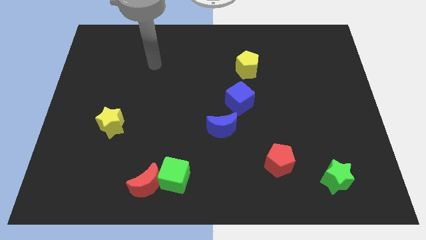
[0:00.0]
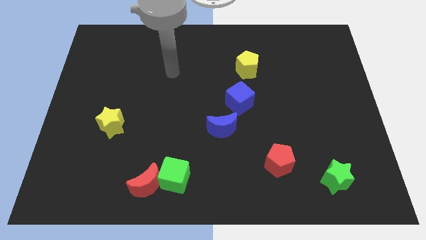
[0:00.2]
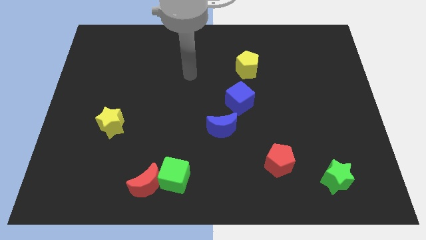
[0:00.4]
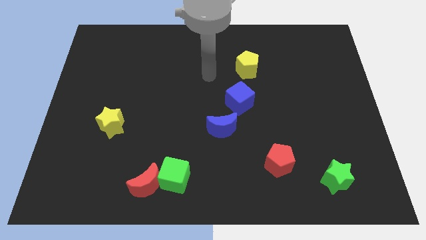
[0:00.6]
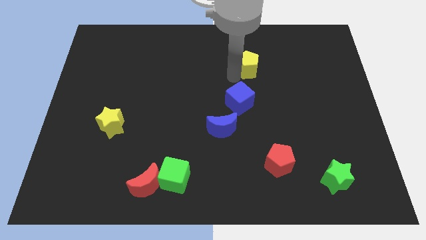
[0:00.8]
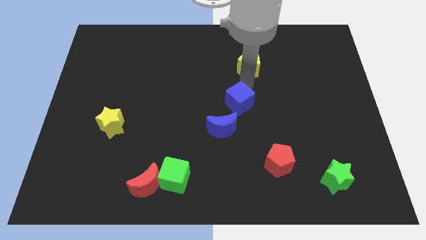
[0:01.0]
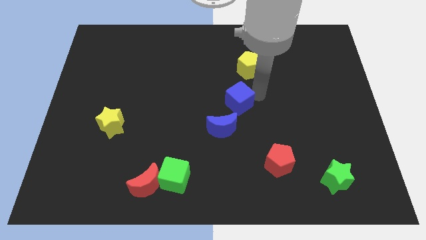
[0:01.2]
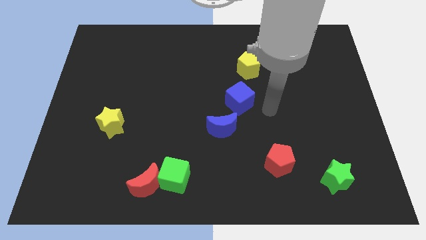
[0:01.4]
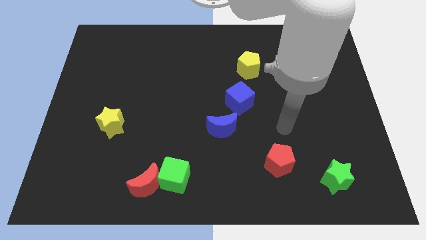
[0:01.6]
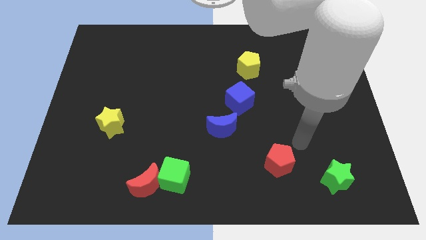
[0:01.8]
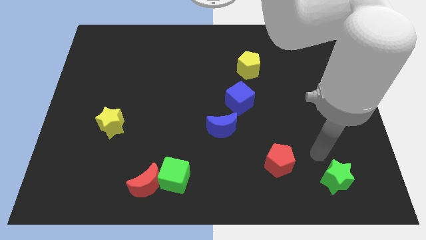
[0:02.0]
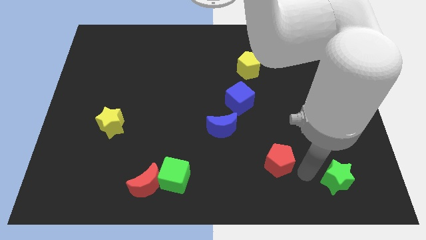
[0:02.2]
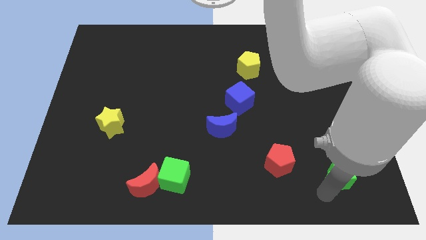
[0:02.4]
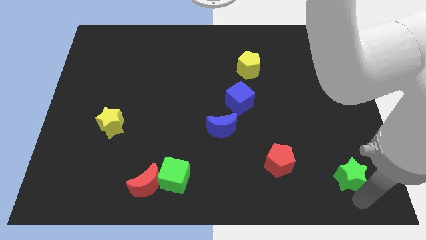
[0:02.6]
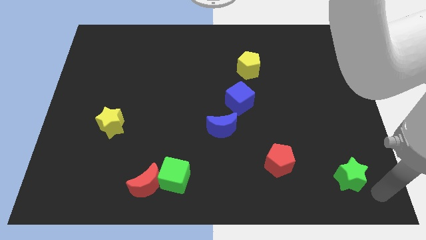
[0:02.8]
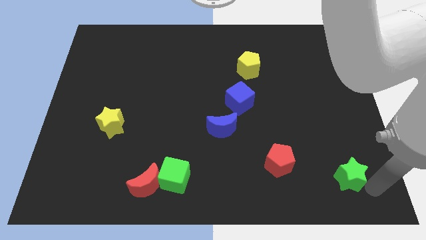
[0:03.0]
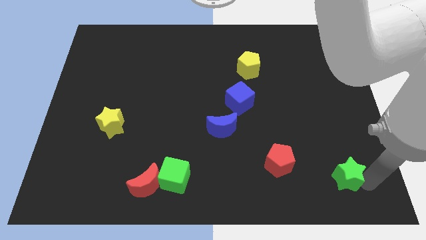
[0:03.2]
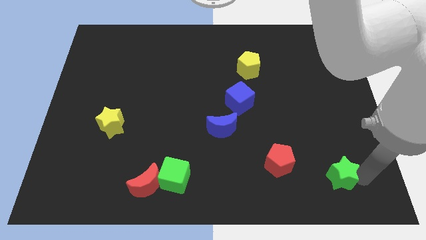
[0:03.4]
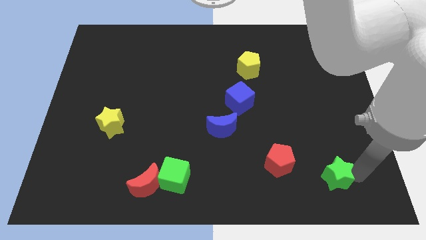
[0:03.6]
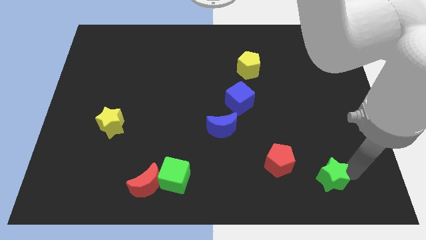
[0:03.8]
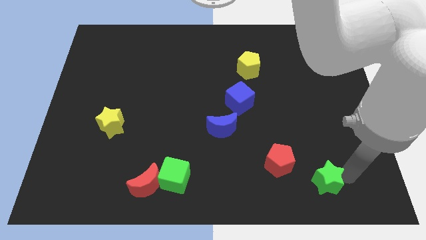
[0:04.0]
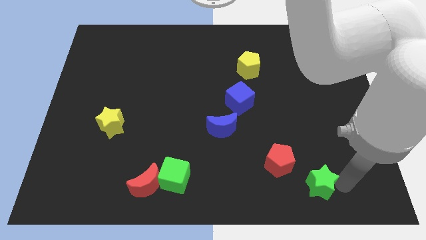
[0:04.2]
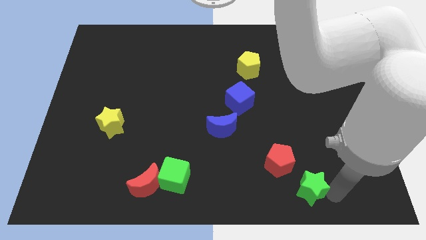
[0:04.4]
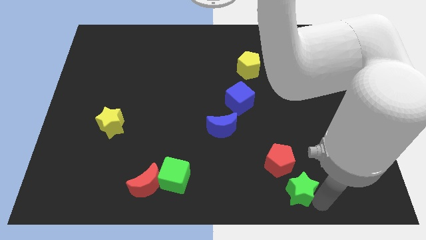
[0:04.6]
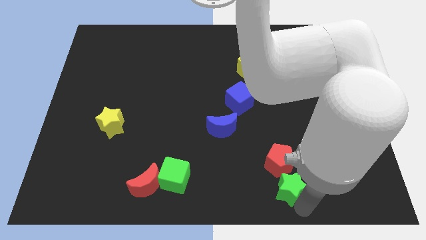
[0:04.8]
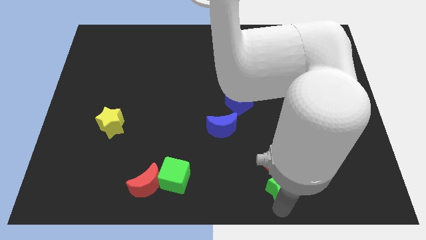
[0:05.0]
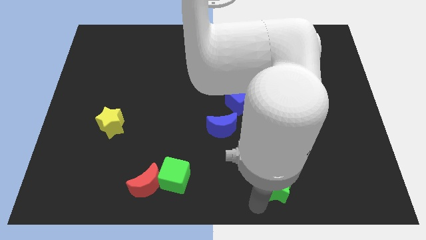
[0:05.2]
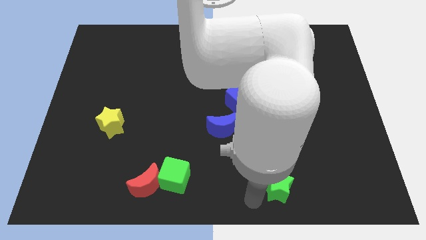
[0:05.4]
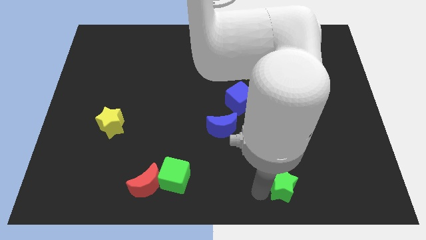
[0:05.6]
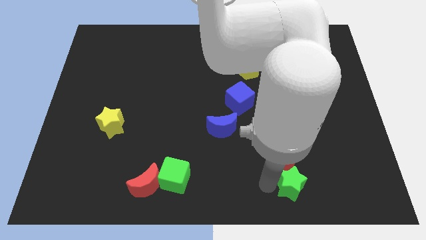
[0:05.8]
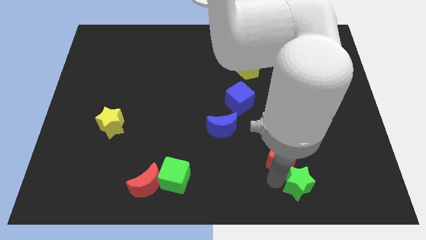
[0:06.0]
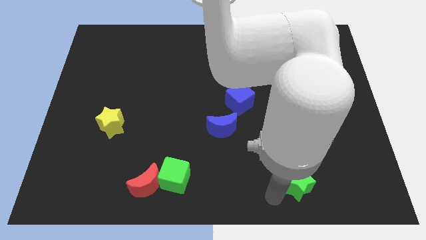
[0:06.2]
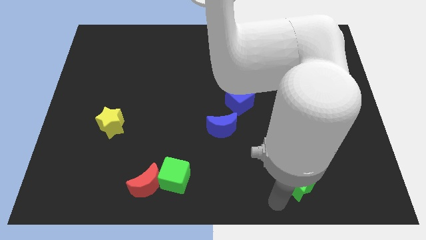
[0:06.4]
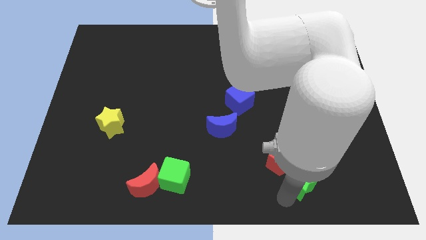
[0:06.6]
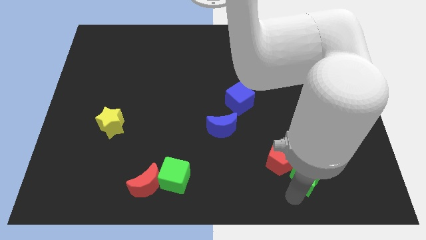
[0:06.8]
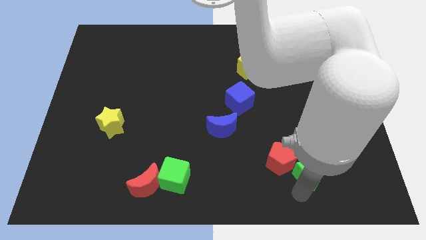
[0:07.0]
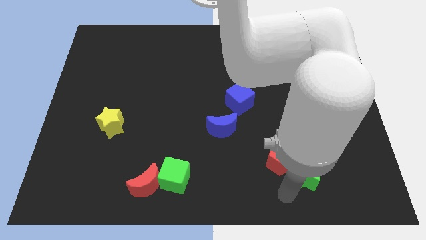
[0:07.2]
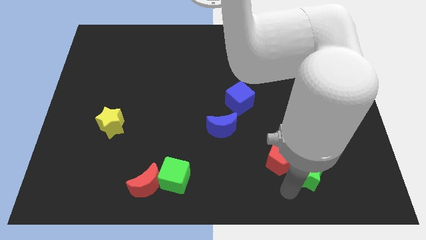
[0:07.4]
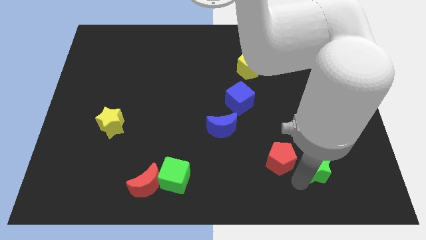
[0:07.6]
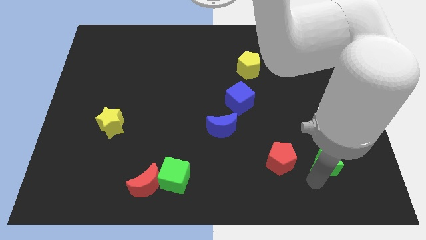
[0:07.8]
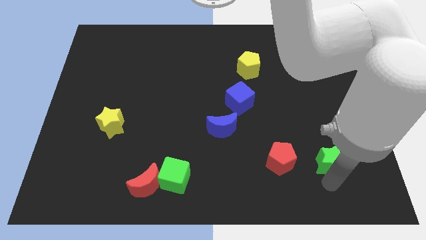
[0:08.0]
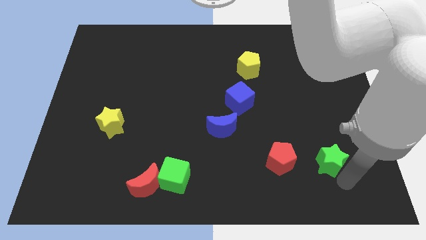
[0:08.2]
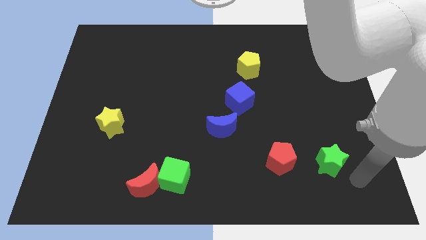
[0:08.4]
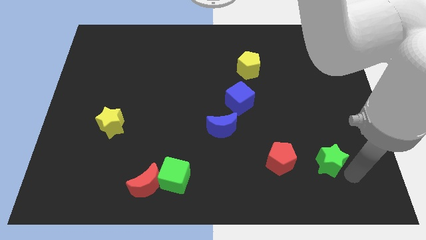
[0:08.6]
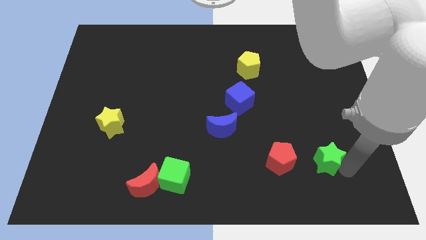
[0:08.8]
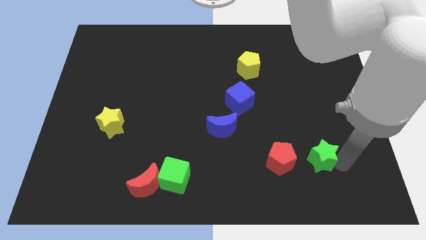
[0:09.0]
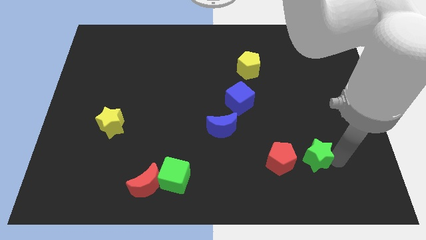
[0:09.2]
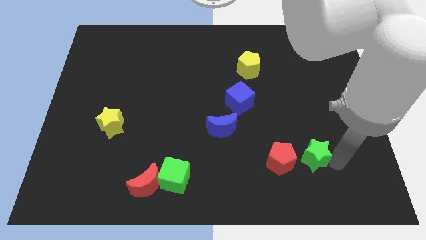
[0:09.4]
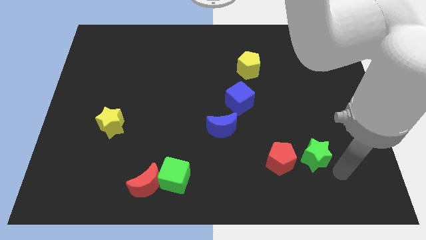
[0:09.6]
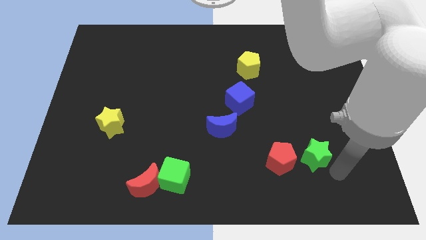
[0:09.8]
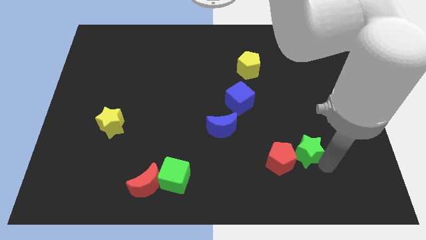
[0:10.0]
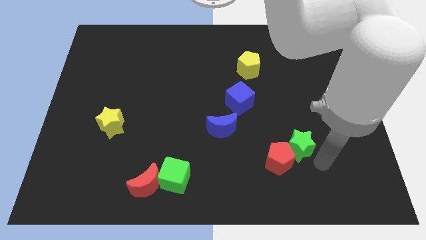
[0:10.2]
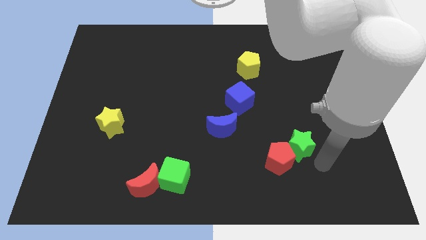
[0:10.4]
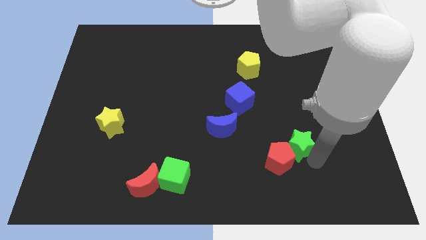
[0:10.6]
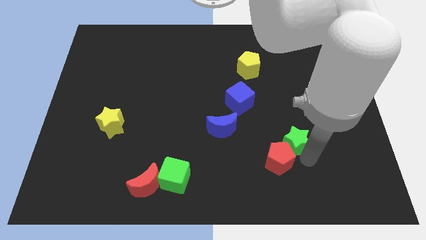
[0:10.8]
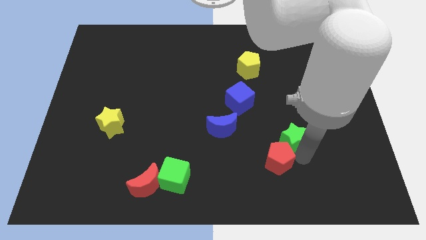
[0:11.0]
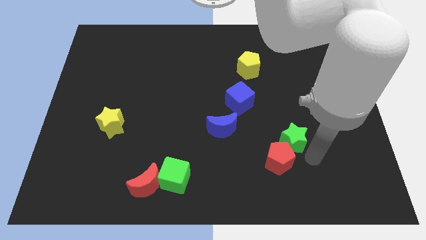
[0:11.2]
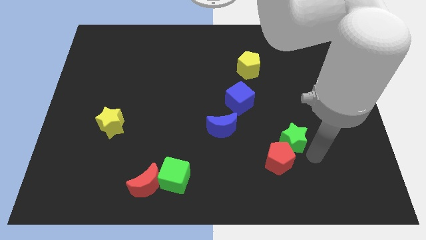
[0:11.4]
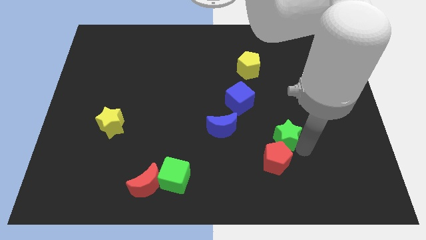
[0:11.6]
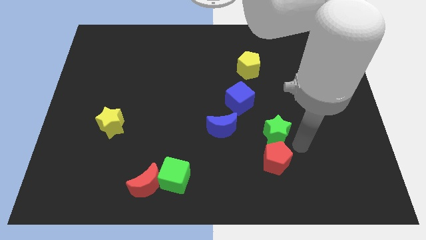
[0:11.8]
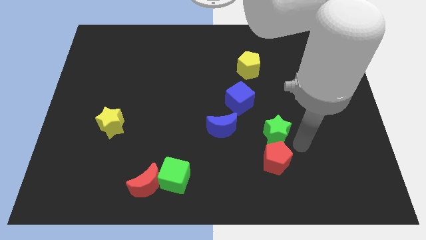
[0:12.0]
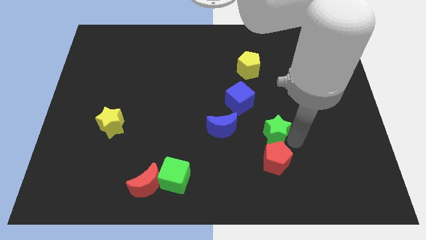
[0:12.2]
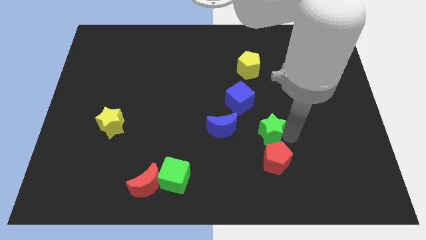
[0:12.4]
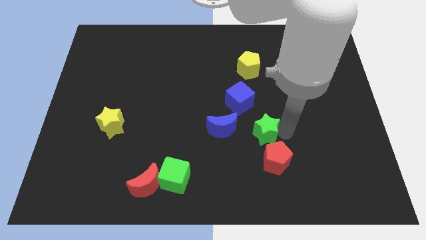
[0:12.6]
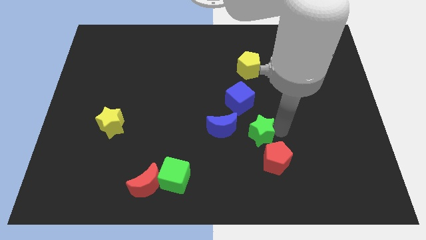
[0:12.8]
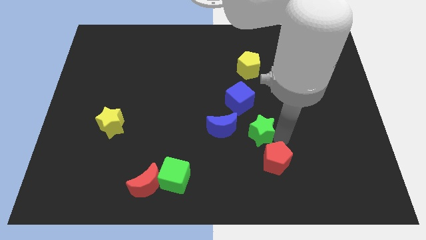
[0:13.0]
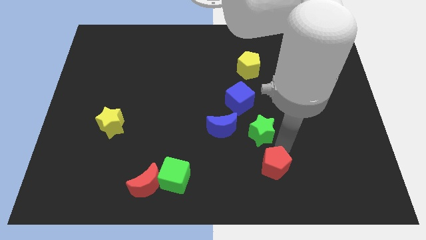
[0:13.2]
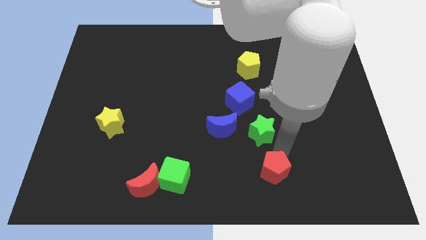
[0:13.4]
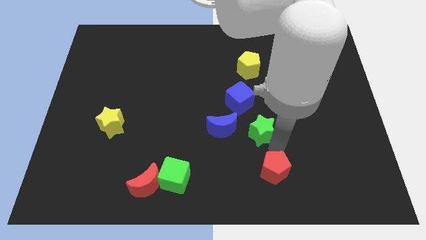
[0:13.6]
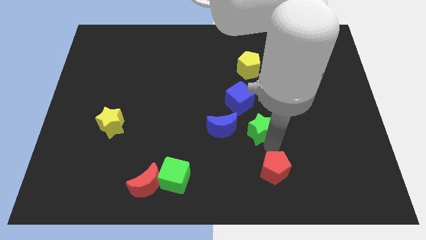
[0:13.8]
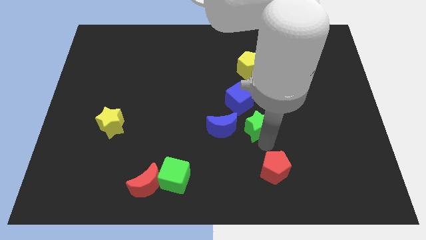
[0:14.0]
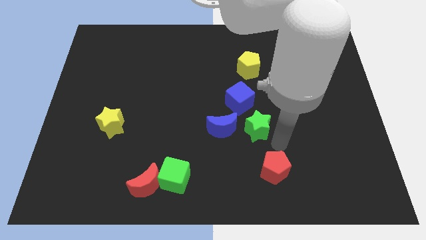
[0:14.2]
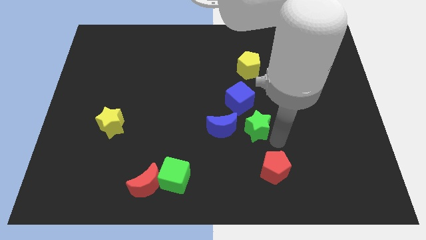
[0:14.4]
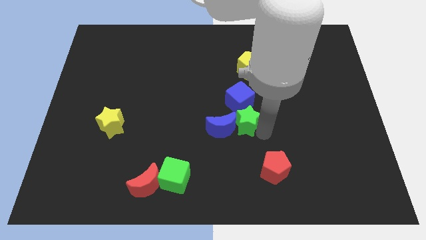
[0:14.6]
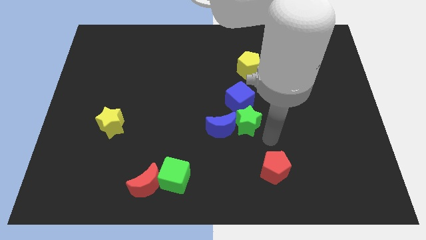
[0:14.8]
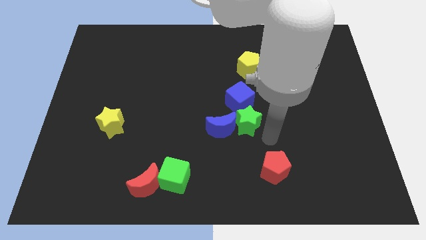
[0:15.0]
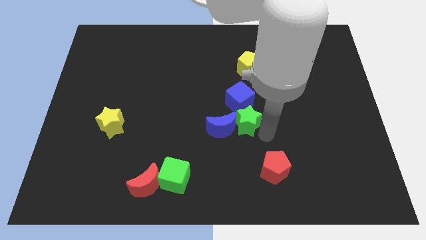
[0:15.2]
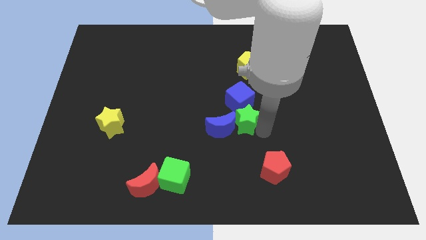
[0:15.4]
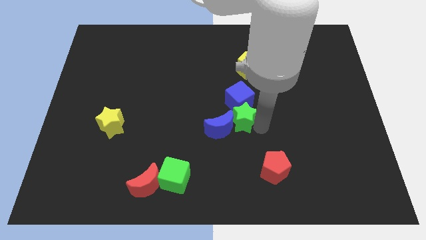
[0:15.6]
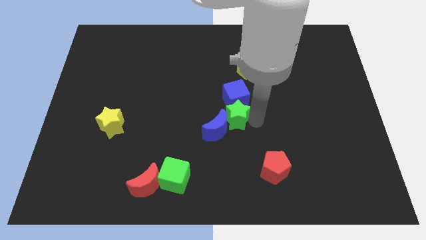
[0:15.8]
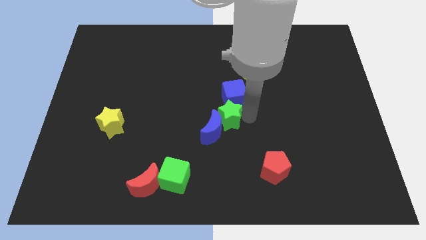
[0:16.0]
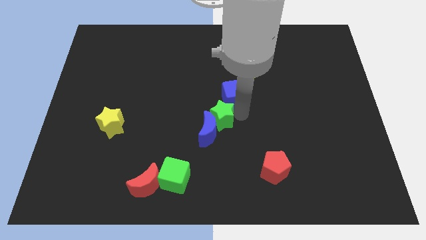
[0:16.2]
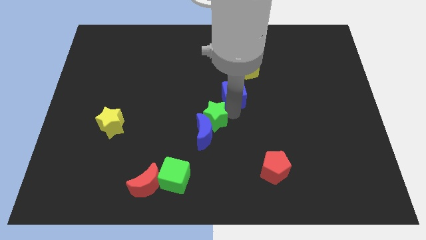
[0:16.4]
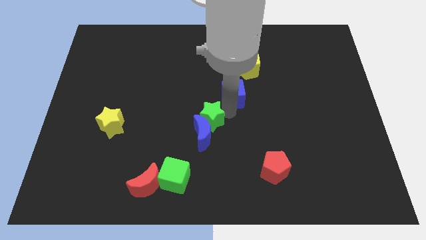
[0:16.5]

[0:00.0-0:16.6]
slide the green star diagonally up and to the left of the blue moon
